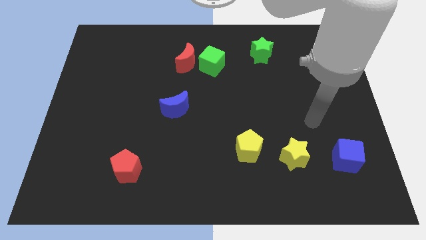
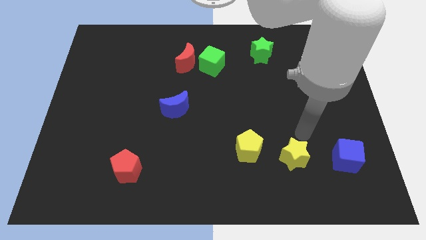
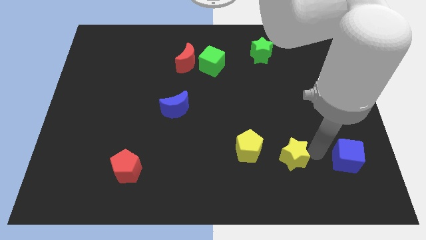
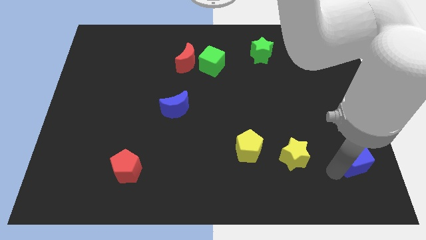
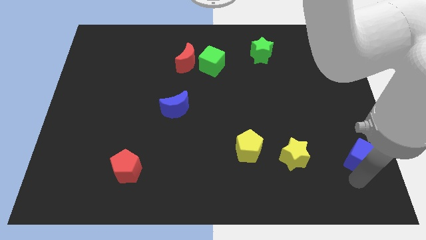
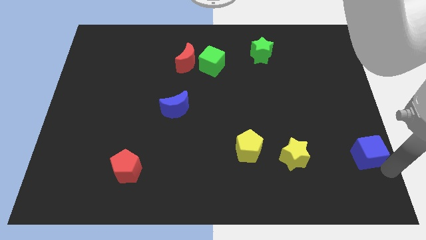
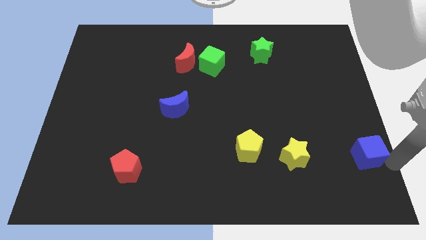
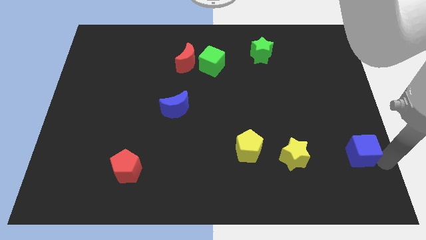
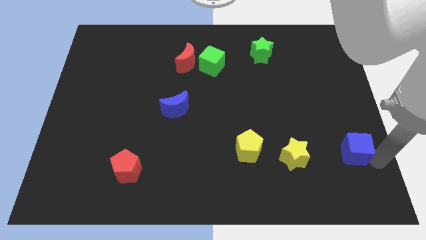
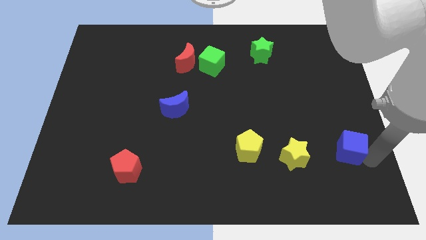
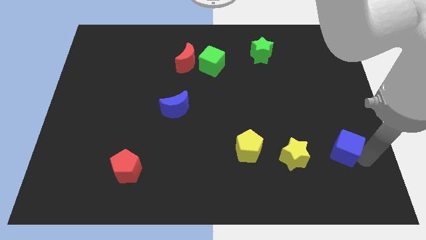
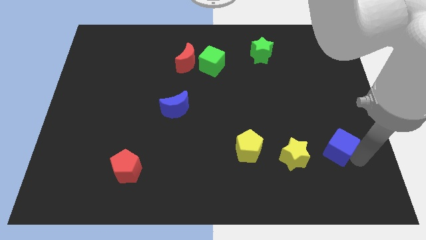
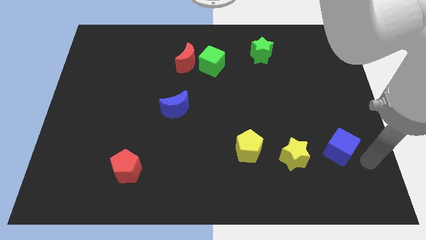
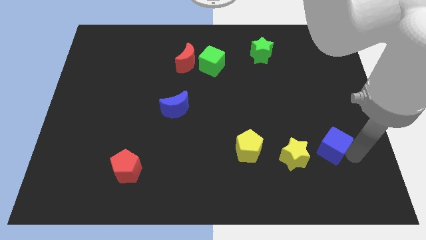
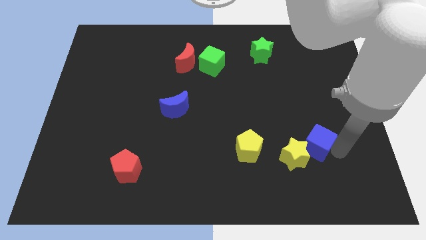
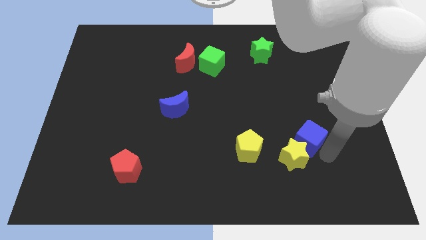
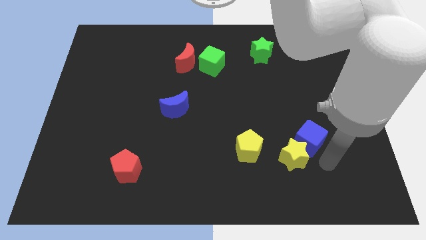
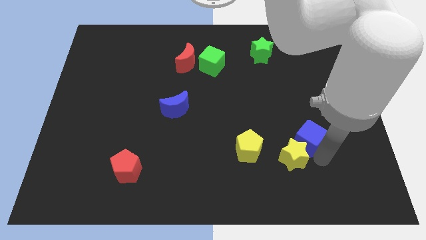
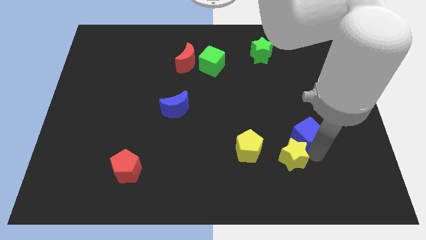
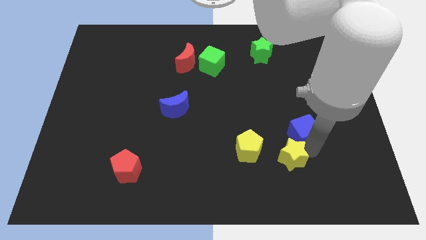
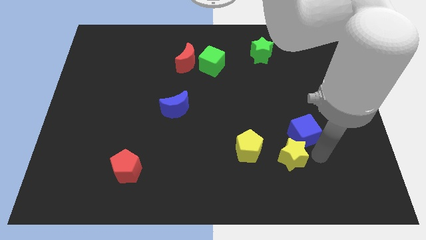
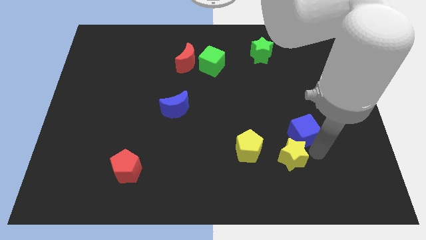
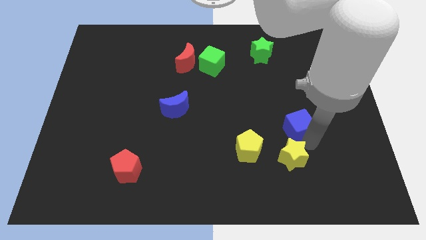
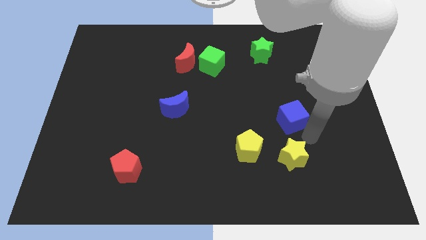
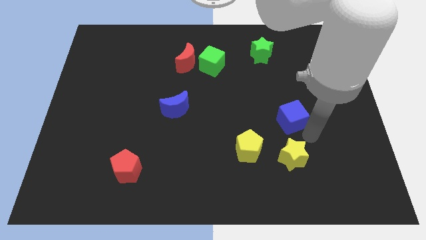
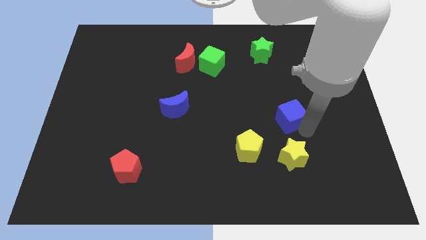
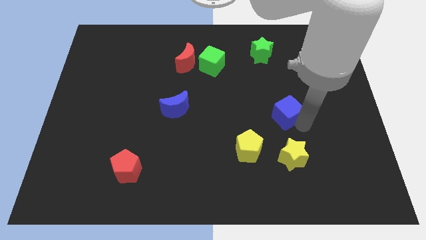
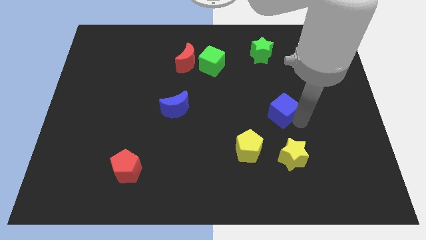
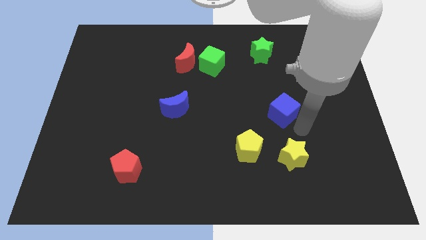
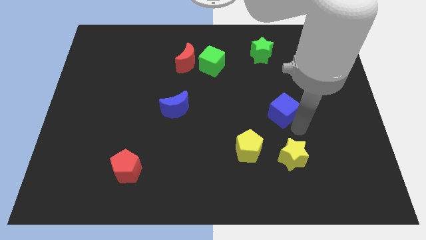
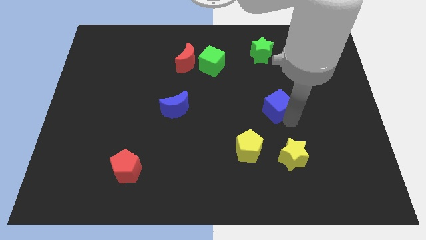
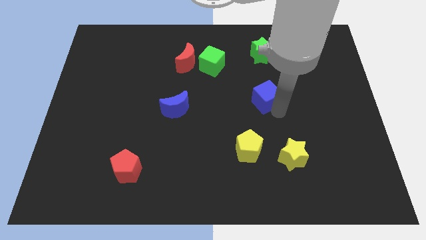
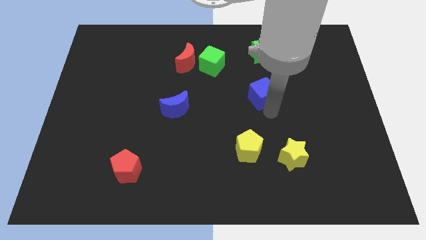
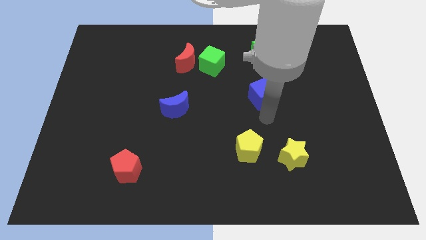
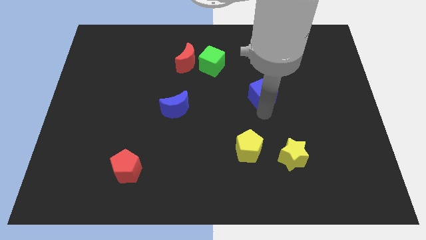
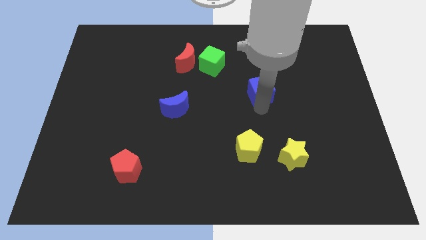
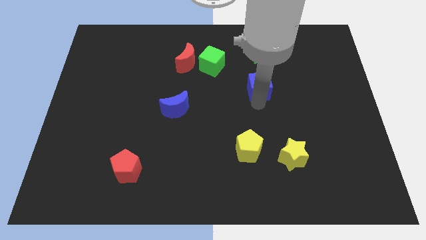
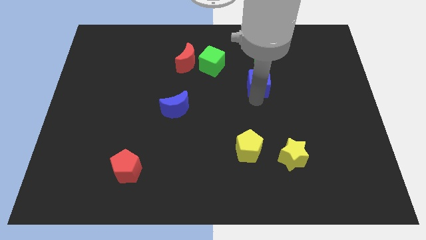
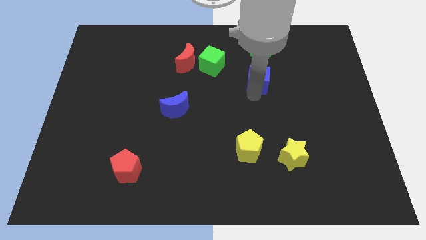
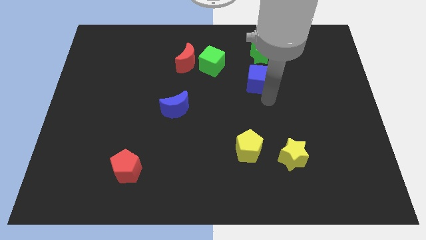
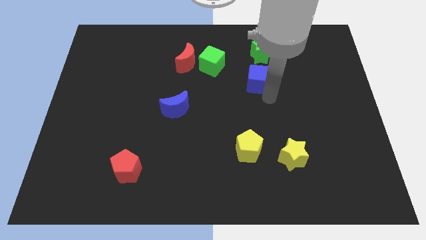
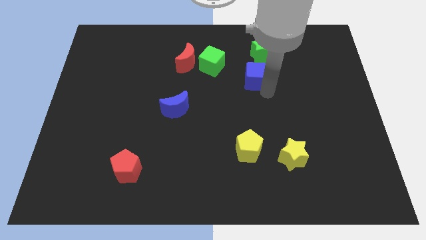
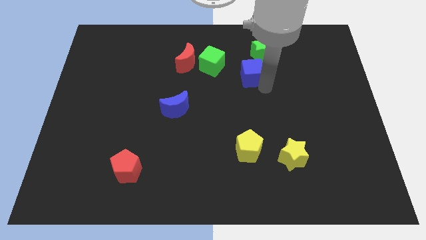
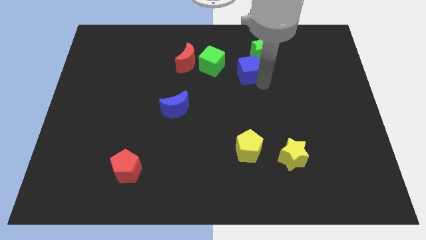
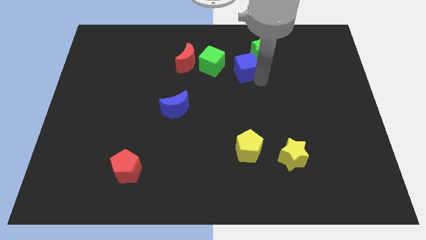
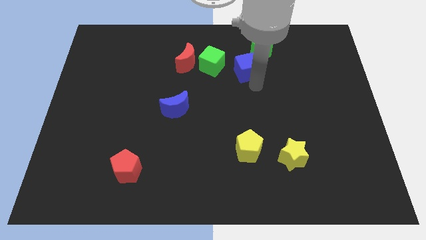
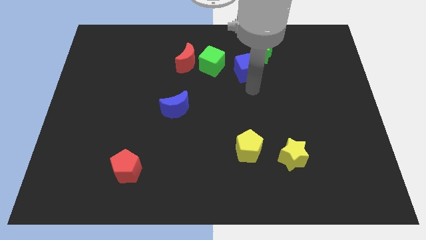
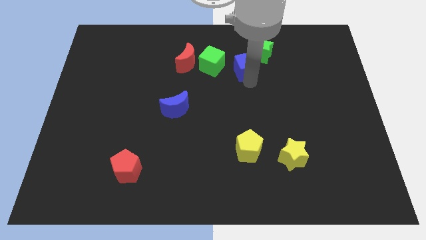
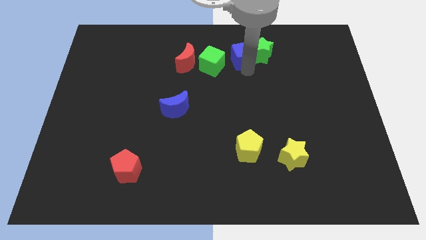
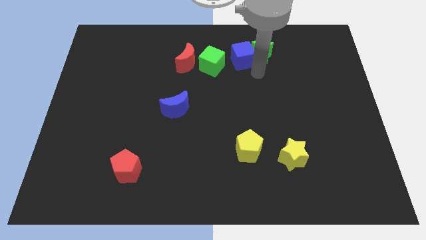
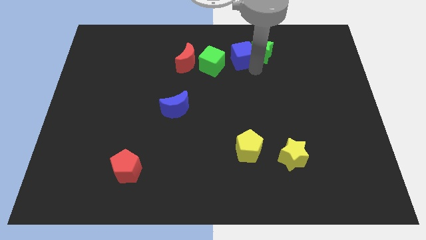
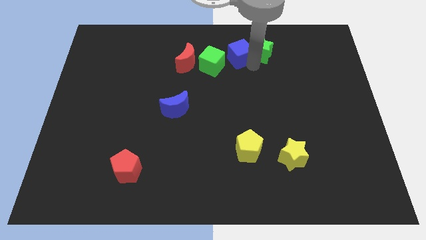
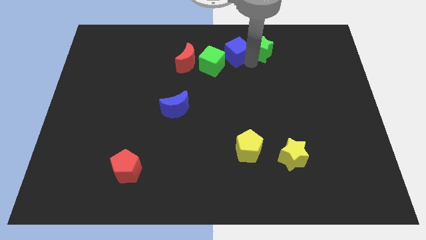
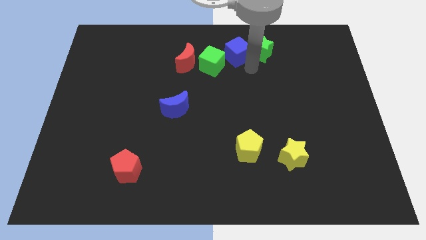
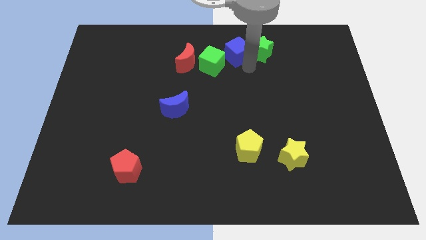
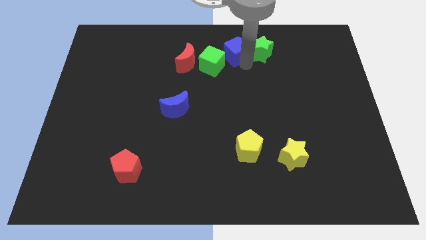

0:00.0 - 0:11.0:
put the blue cube to the top

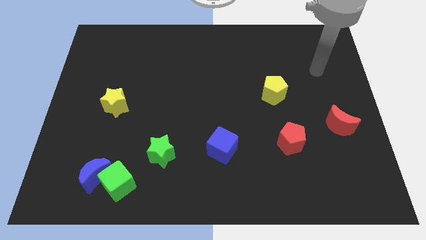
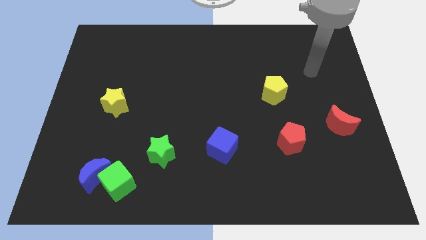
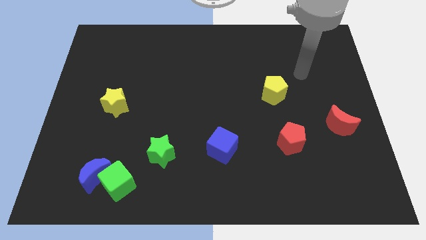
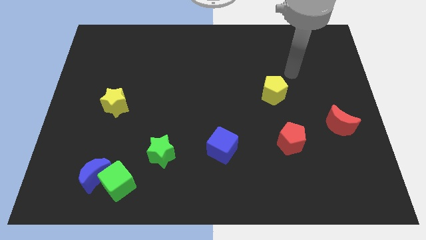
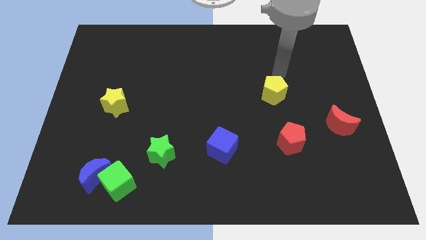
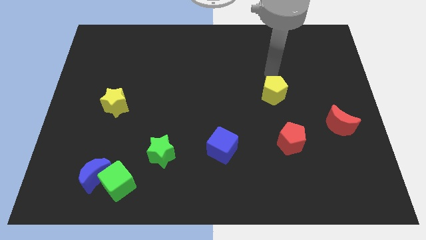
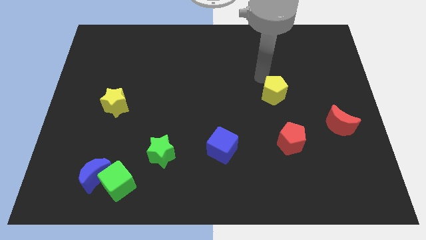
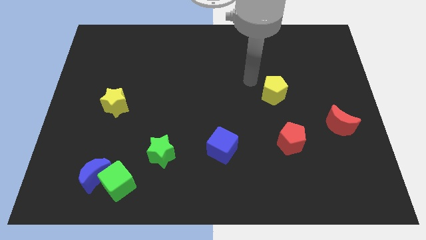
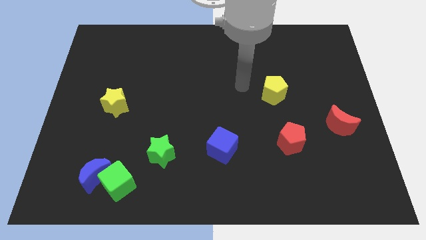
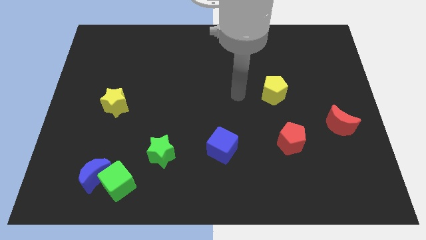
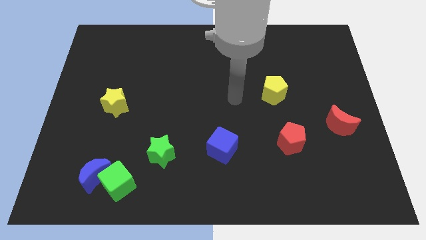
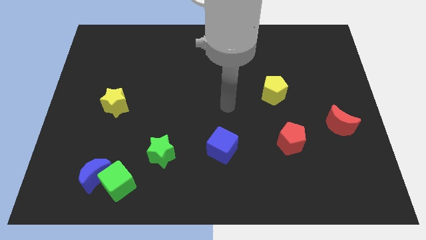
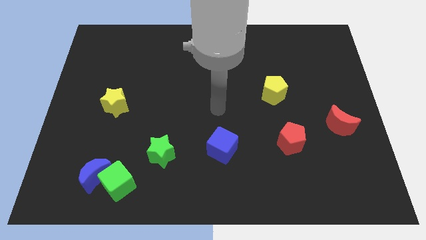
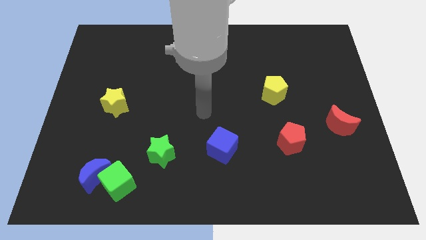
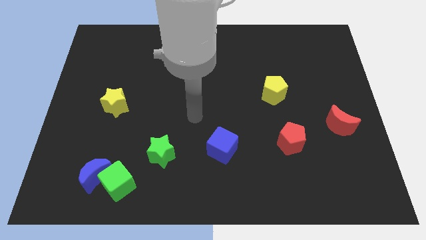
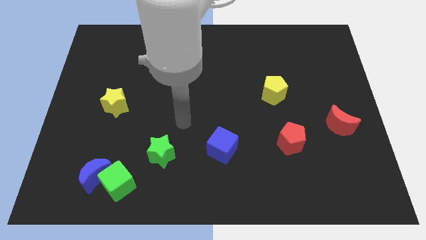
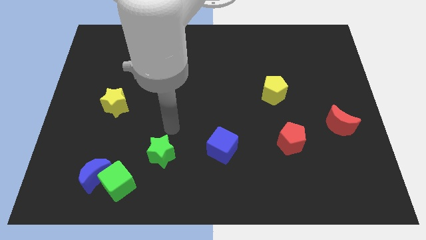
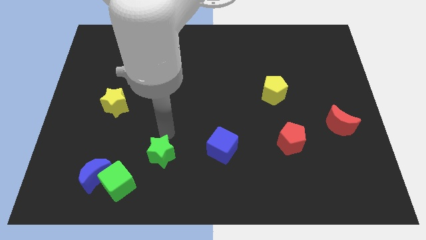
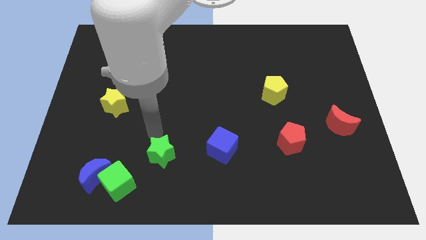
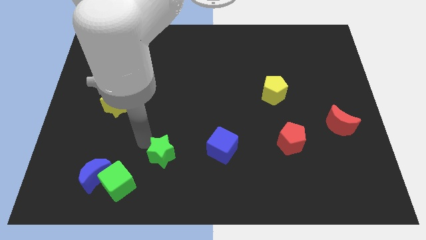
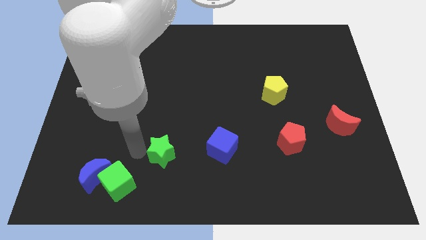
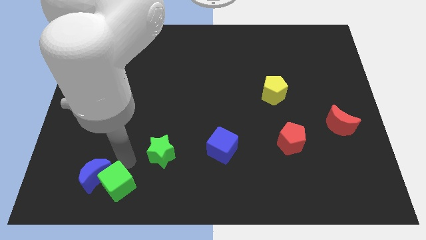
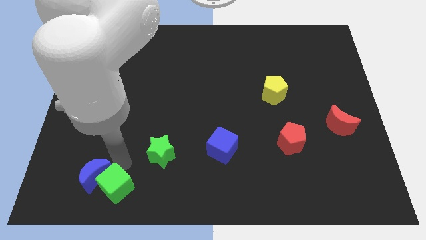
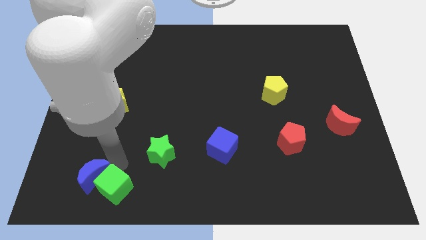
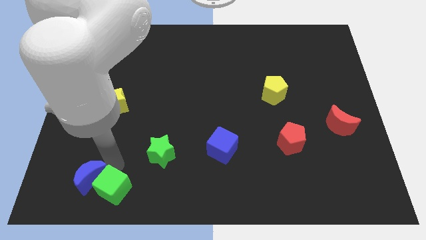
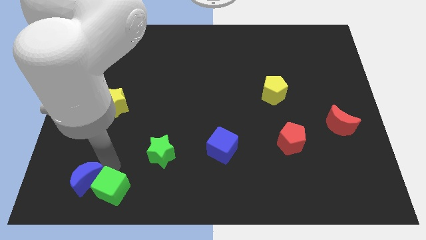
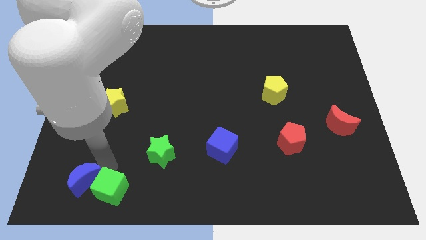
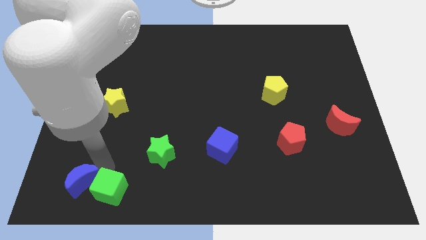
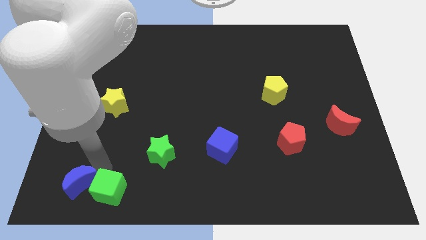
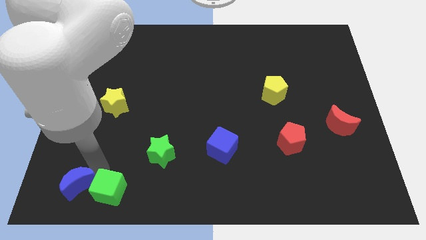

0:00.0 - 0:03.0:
put the blue moon to the bottom left of the board
